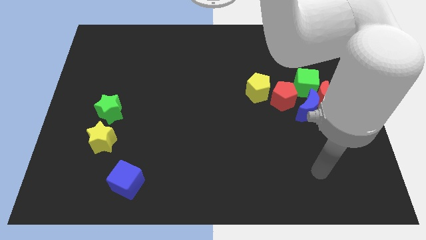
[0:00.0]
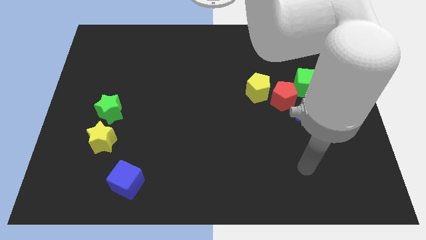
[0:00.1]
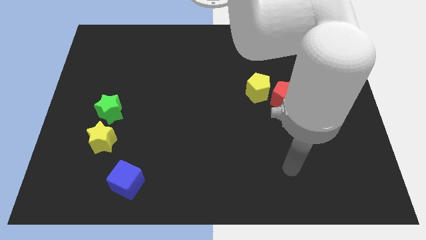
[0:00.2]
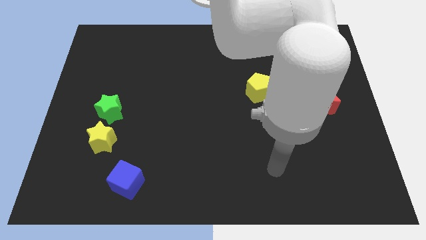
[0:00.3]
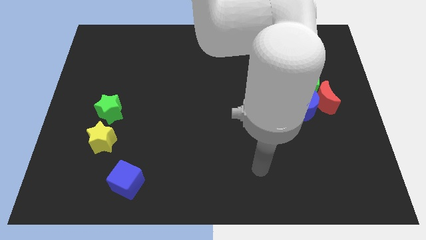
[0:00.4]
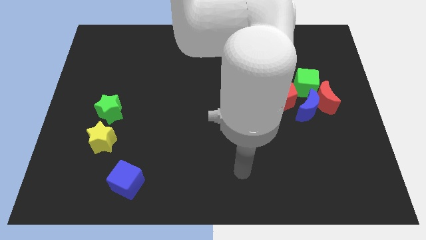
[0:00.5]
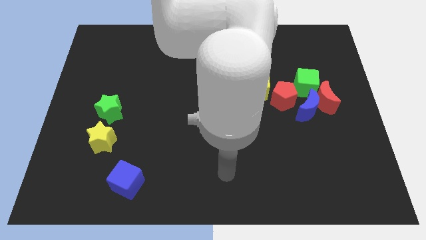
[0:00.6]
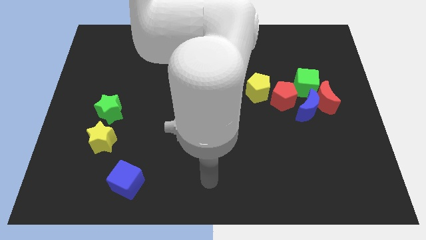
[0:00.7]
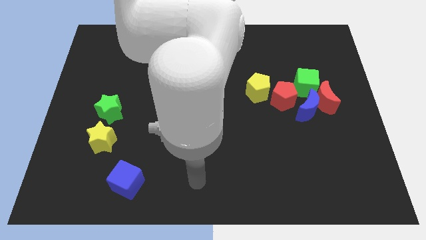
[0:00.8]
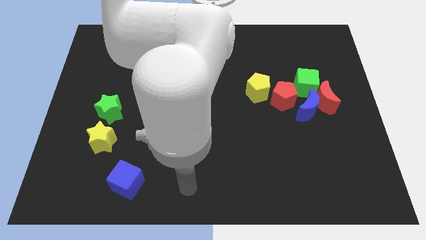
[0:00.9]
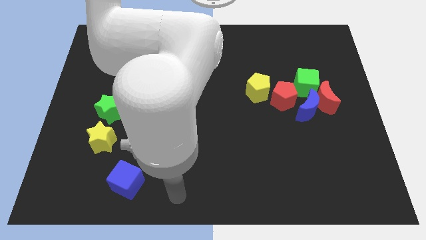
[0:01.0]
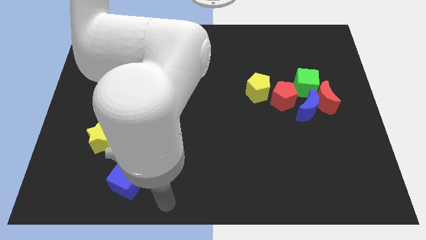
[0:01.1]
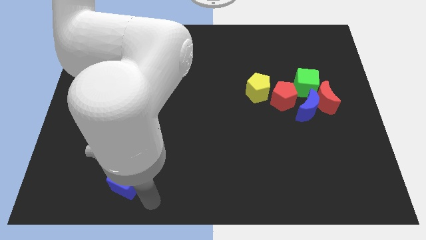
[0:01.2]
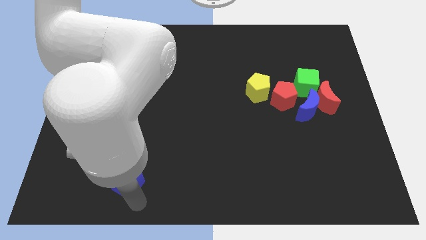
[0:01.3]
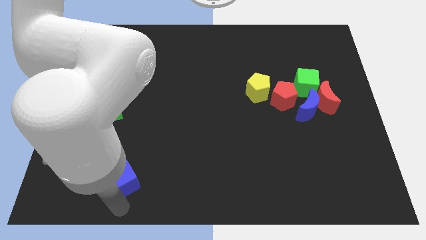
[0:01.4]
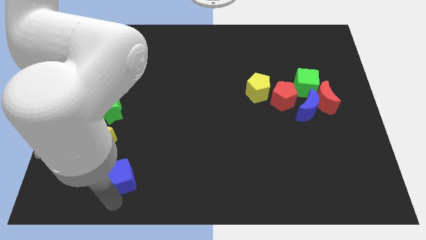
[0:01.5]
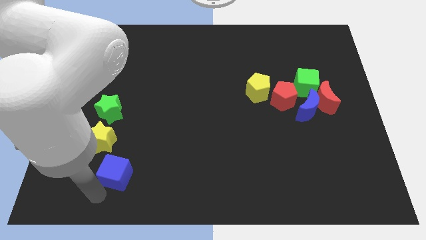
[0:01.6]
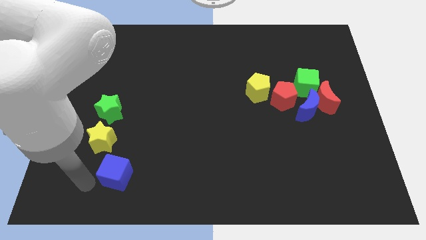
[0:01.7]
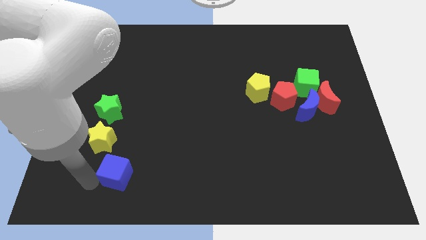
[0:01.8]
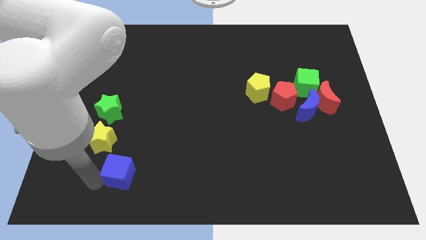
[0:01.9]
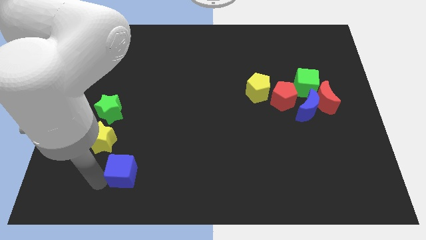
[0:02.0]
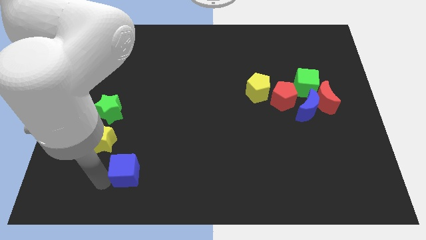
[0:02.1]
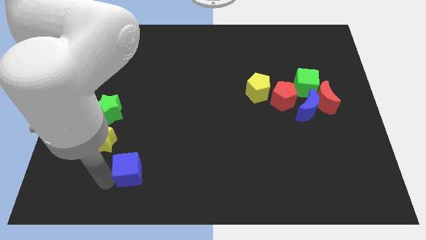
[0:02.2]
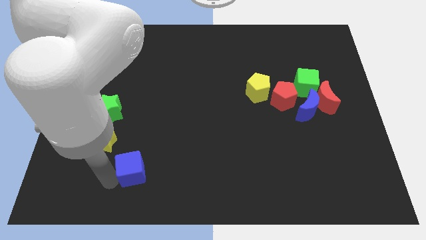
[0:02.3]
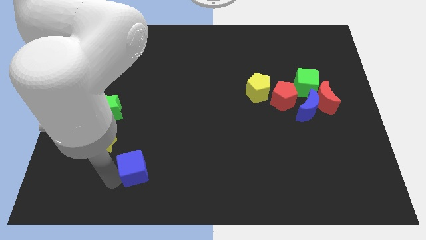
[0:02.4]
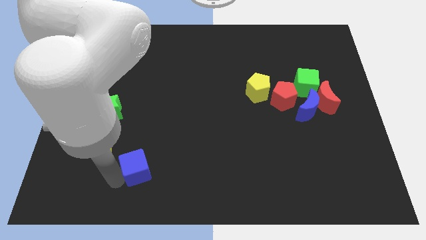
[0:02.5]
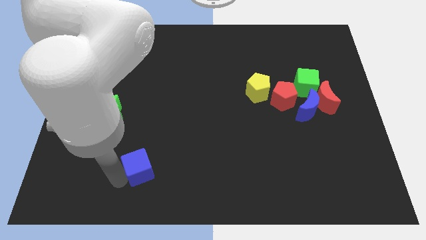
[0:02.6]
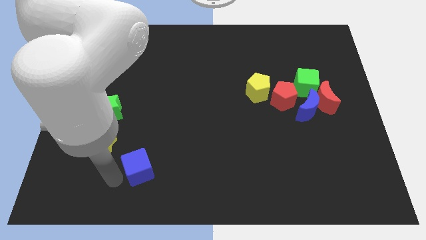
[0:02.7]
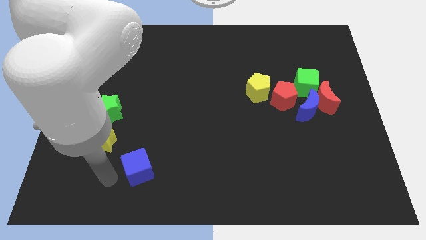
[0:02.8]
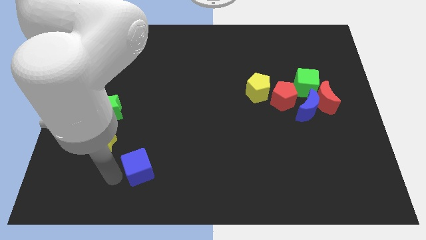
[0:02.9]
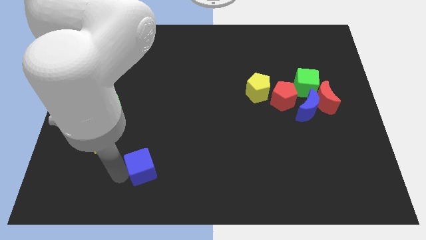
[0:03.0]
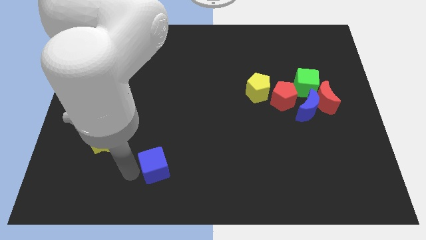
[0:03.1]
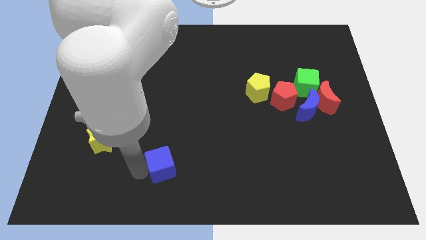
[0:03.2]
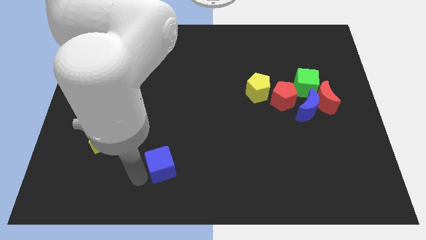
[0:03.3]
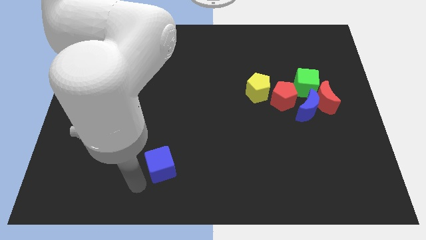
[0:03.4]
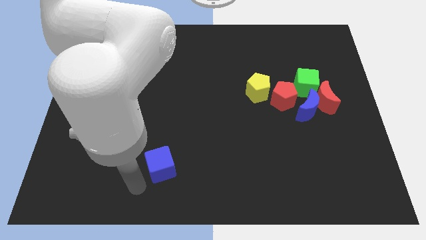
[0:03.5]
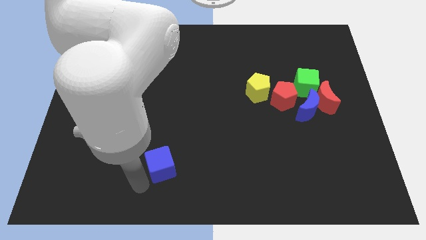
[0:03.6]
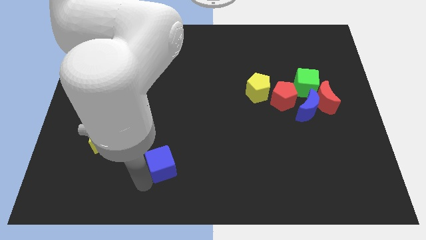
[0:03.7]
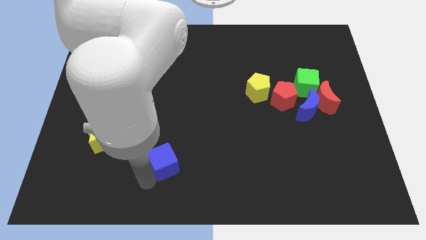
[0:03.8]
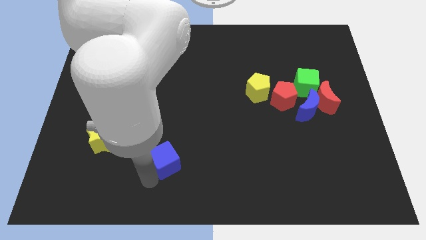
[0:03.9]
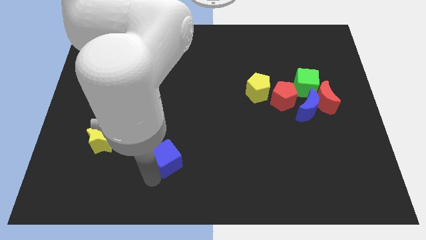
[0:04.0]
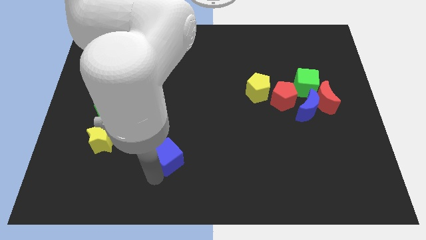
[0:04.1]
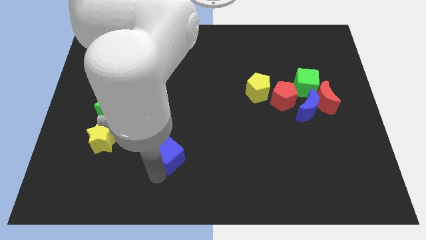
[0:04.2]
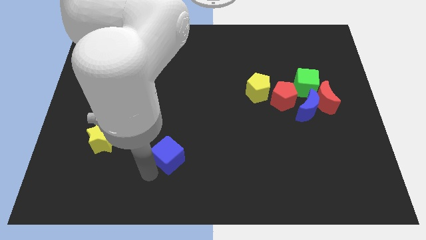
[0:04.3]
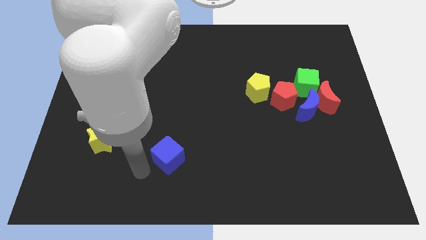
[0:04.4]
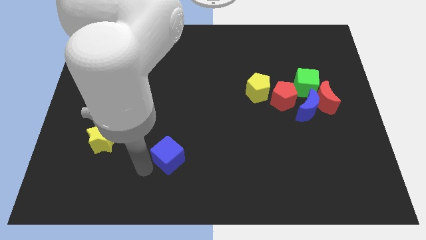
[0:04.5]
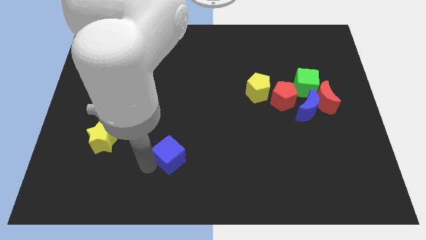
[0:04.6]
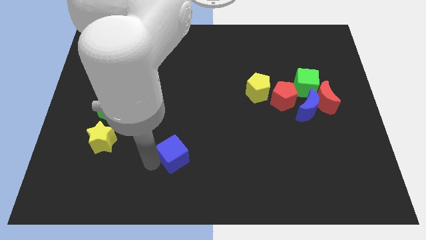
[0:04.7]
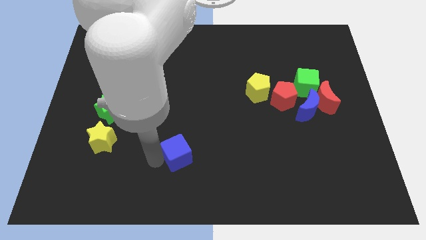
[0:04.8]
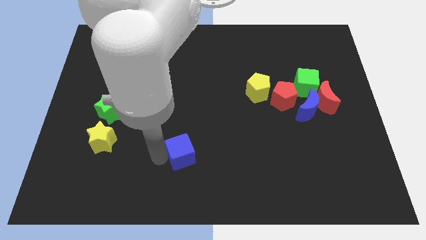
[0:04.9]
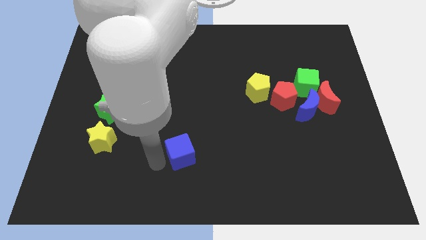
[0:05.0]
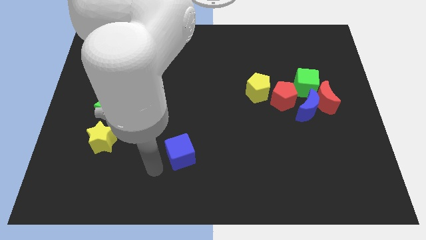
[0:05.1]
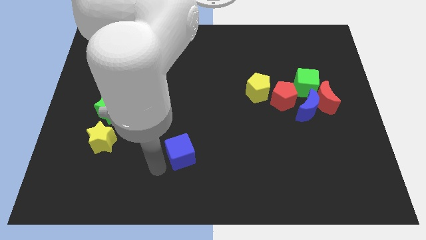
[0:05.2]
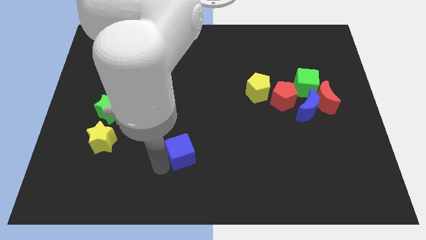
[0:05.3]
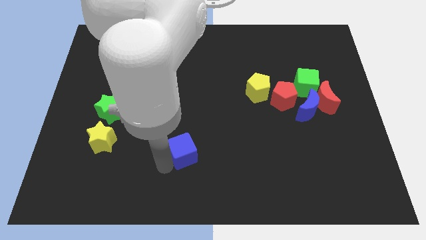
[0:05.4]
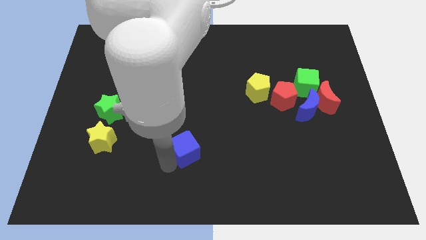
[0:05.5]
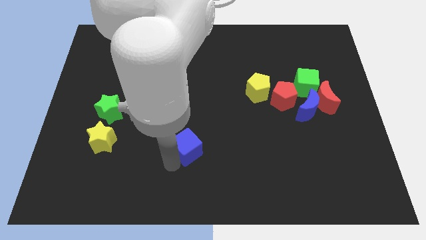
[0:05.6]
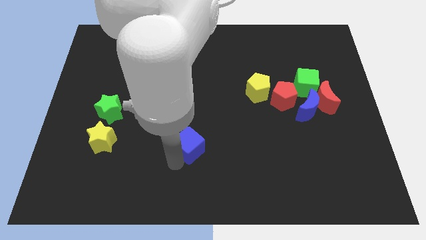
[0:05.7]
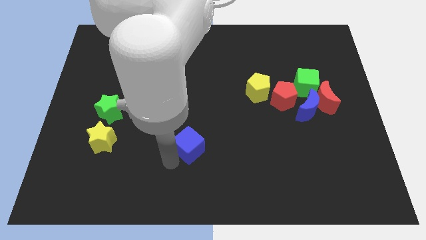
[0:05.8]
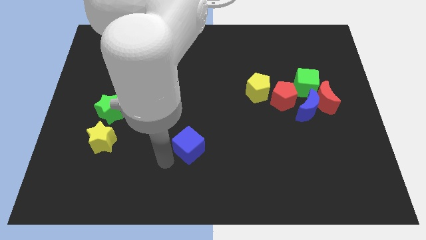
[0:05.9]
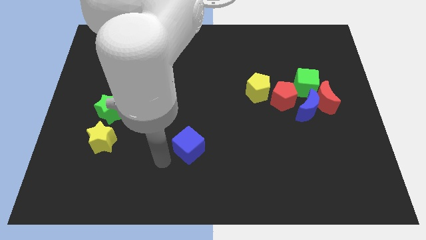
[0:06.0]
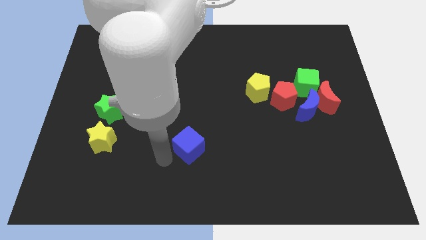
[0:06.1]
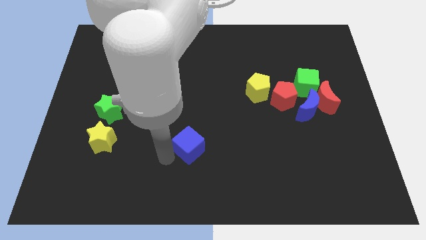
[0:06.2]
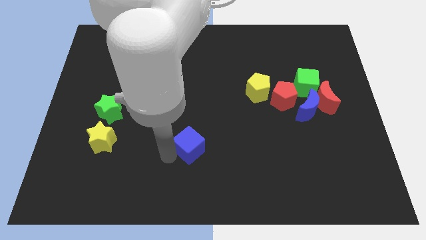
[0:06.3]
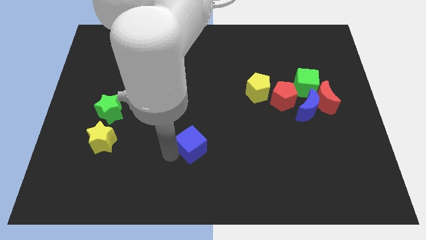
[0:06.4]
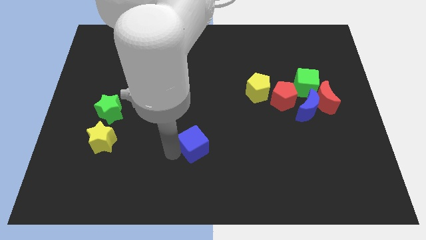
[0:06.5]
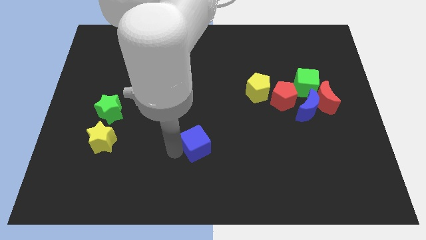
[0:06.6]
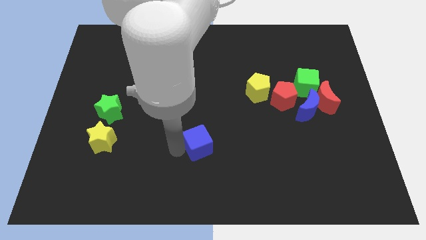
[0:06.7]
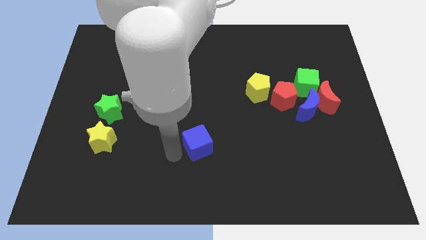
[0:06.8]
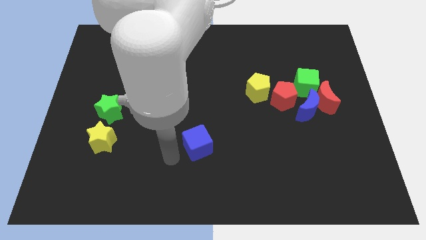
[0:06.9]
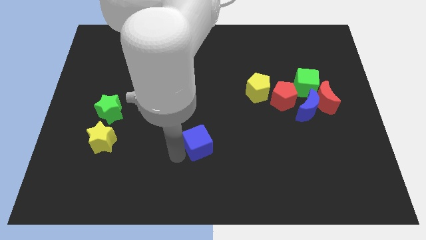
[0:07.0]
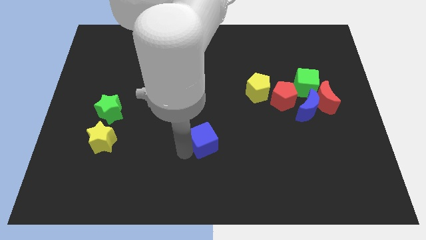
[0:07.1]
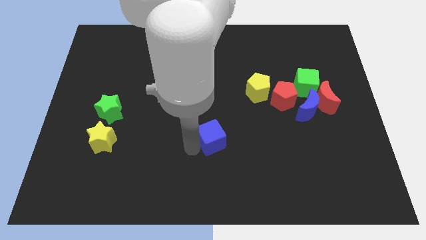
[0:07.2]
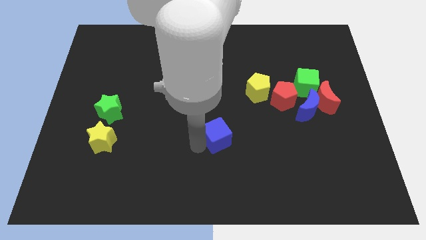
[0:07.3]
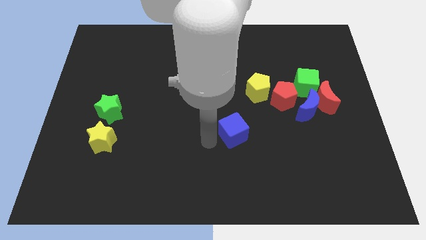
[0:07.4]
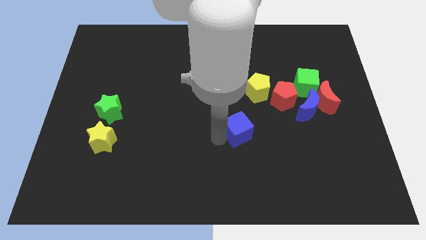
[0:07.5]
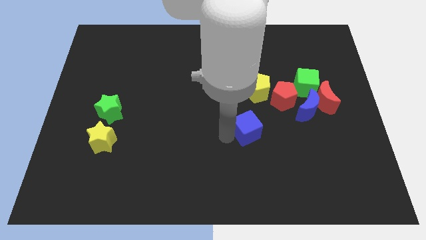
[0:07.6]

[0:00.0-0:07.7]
move the blue cube to the bottom left of the red pentagon
